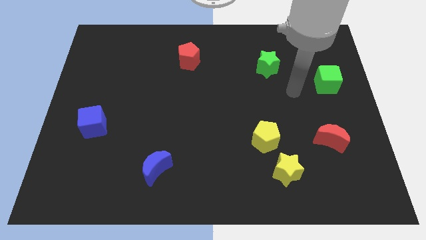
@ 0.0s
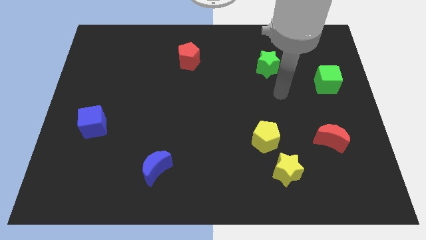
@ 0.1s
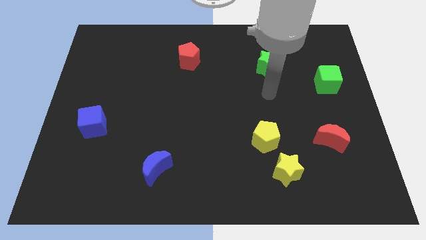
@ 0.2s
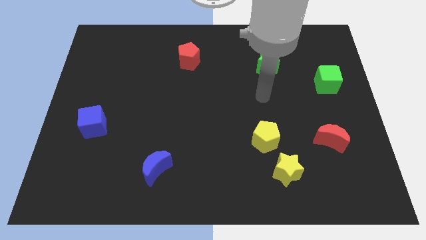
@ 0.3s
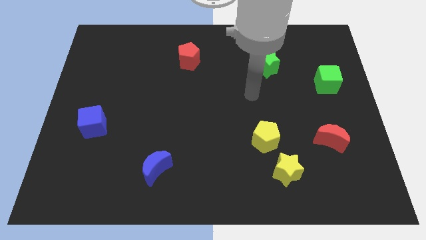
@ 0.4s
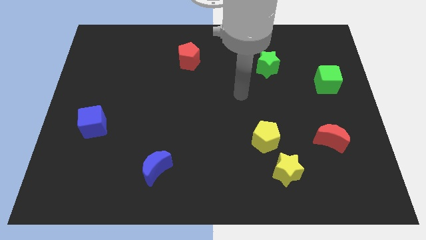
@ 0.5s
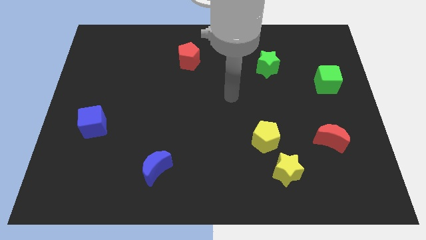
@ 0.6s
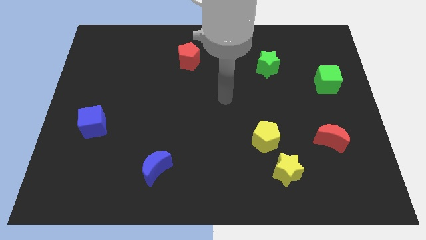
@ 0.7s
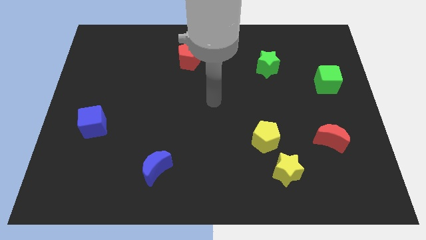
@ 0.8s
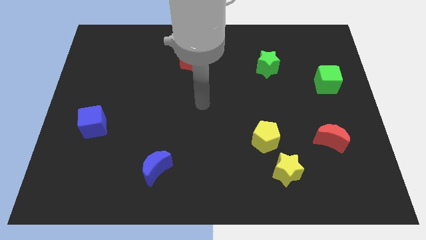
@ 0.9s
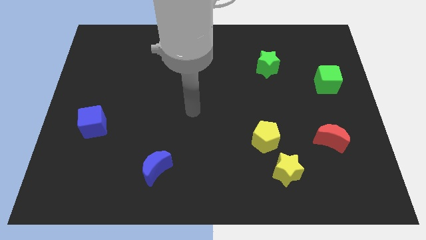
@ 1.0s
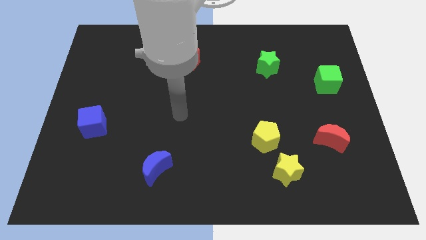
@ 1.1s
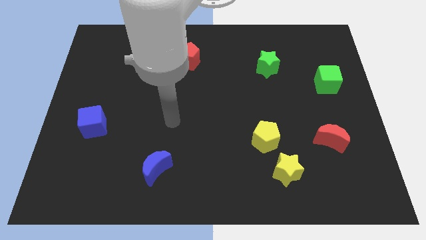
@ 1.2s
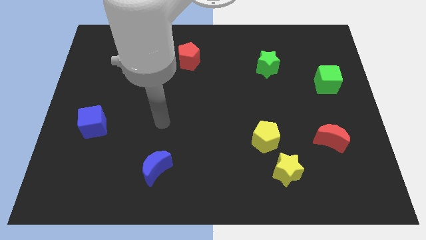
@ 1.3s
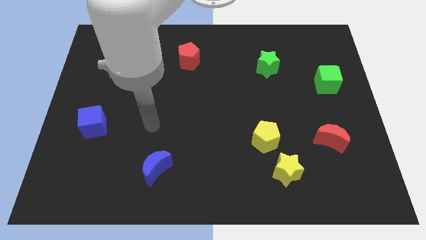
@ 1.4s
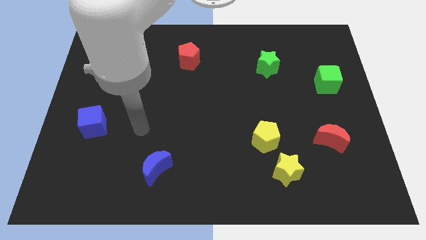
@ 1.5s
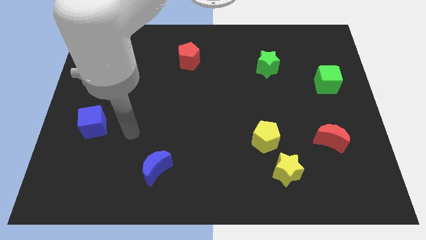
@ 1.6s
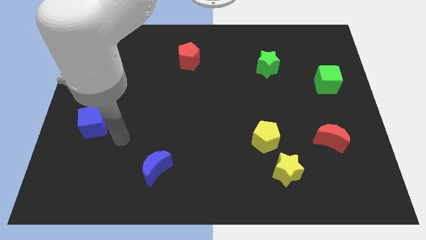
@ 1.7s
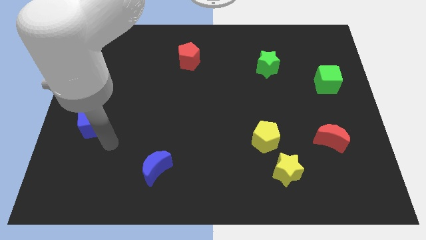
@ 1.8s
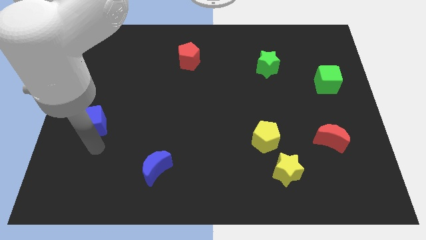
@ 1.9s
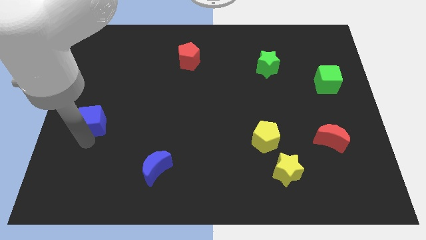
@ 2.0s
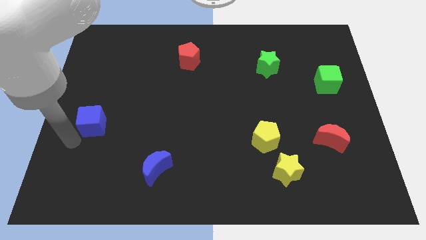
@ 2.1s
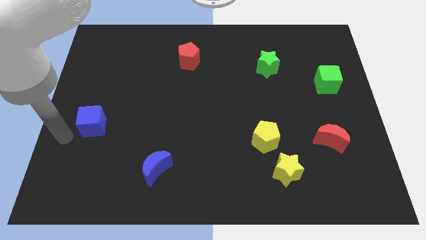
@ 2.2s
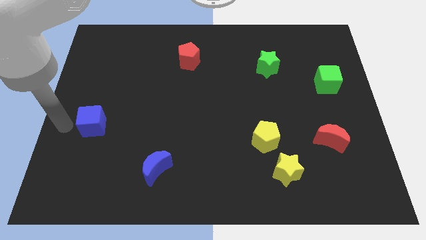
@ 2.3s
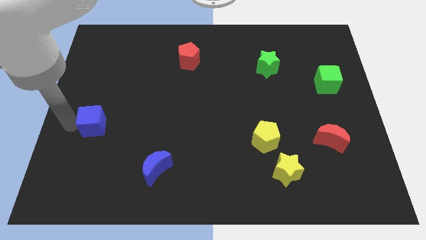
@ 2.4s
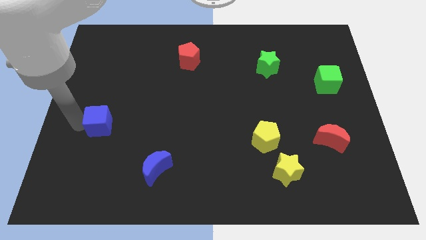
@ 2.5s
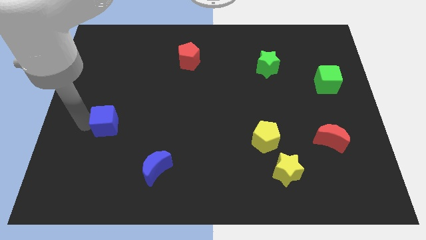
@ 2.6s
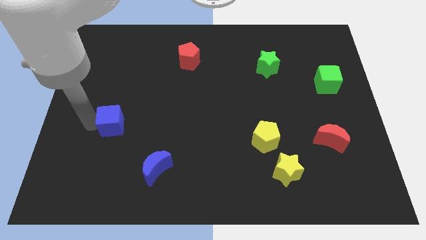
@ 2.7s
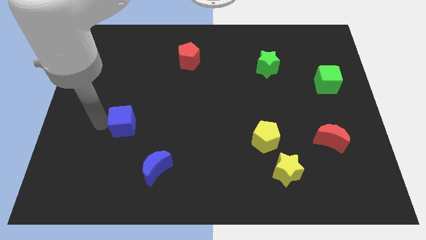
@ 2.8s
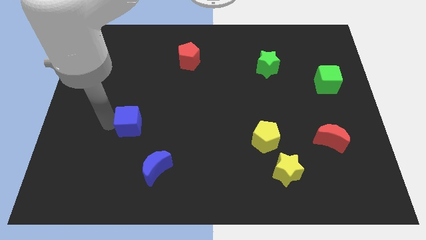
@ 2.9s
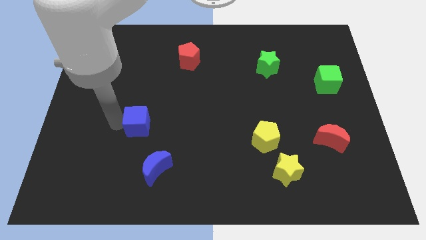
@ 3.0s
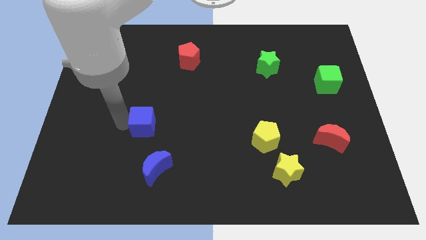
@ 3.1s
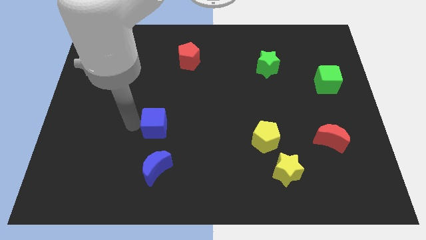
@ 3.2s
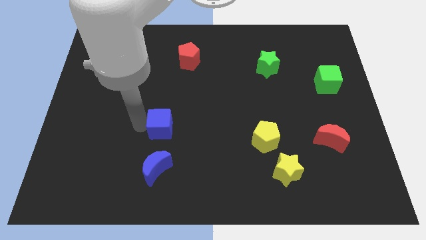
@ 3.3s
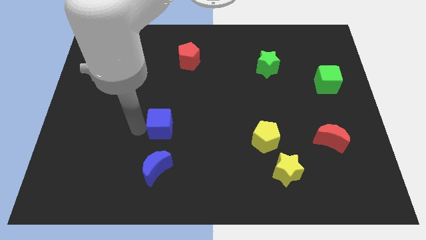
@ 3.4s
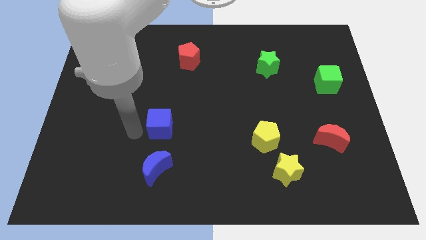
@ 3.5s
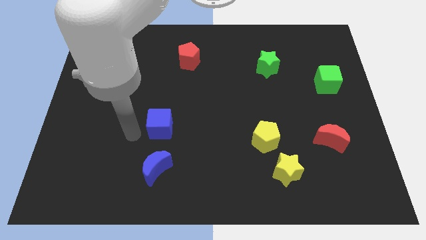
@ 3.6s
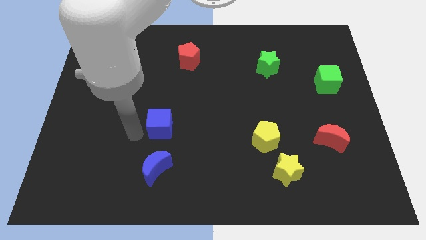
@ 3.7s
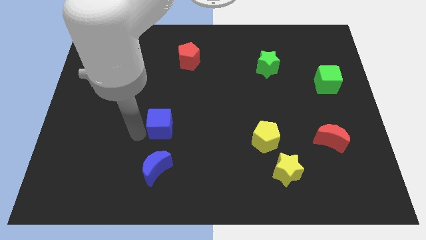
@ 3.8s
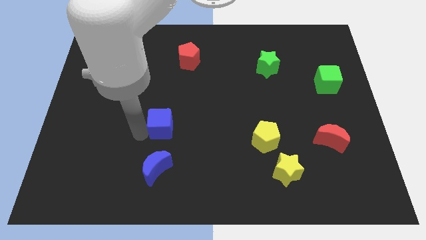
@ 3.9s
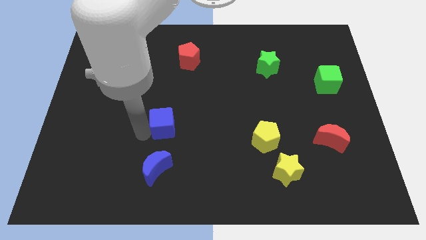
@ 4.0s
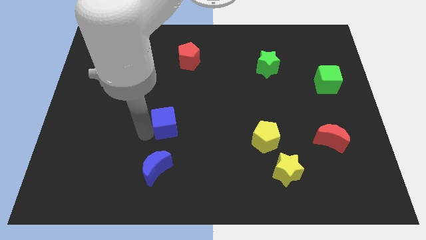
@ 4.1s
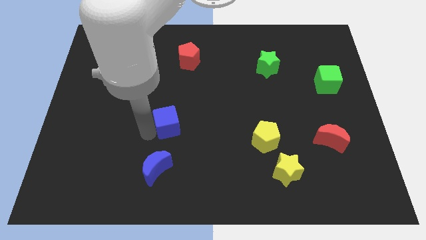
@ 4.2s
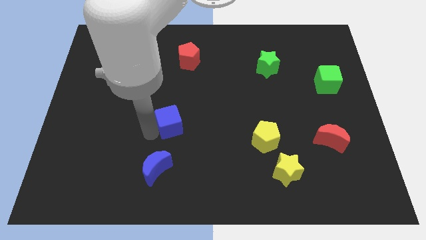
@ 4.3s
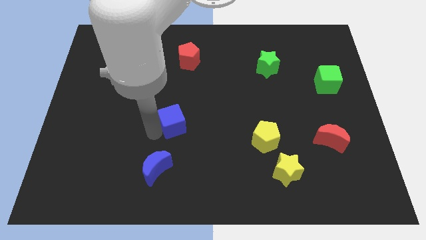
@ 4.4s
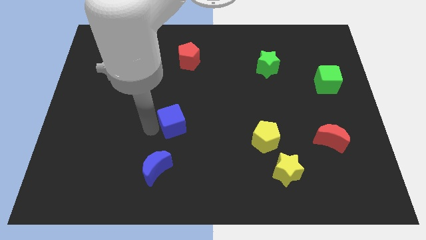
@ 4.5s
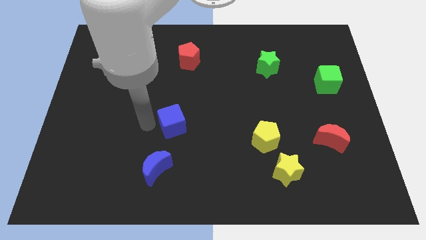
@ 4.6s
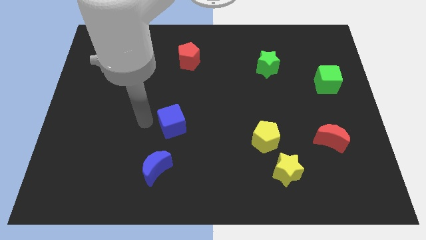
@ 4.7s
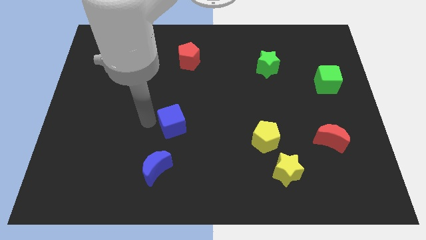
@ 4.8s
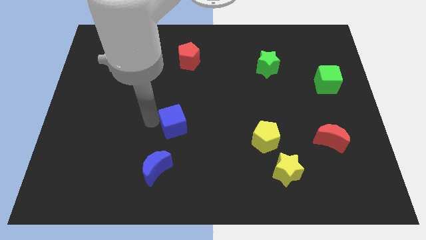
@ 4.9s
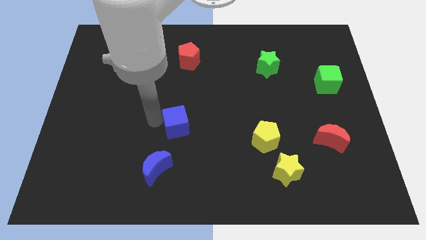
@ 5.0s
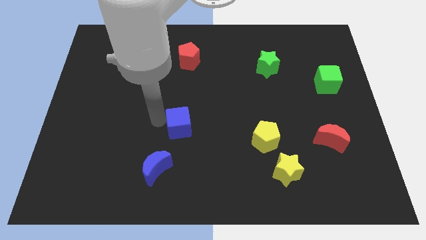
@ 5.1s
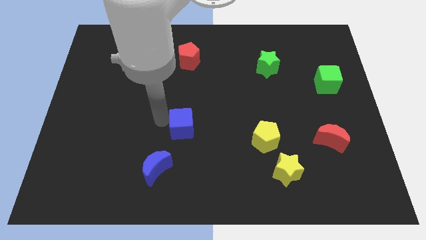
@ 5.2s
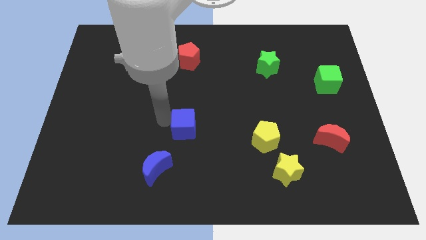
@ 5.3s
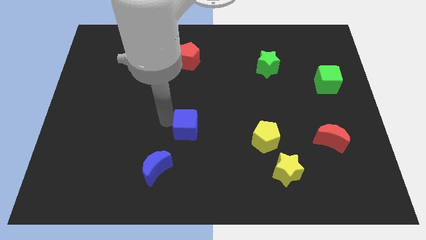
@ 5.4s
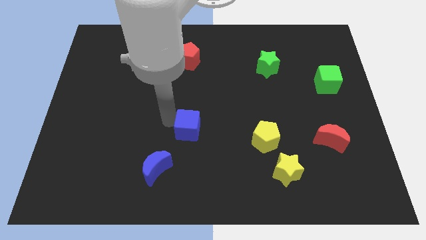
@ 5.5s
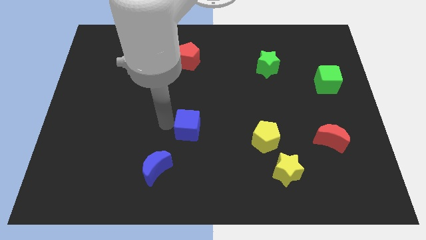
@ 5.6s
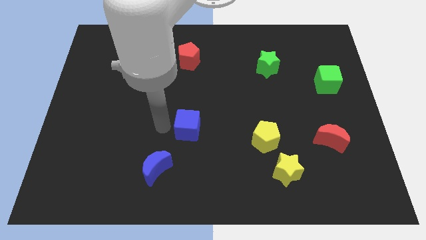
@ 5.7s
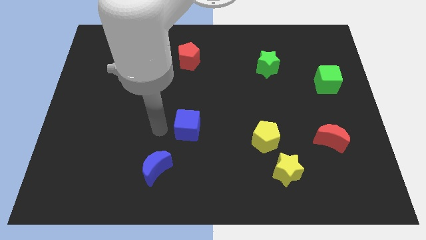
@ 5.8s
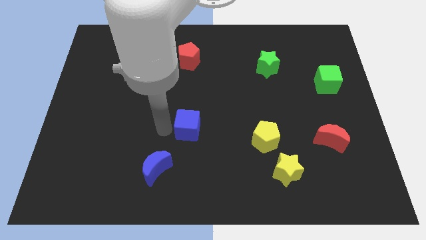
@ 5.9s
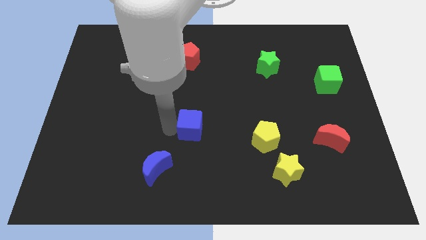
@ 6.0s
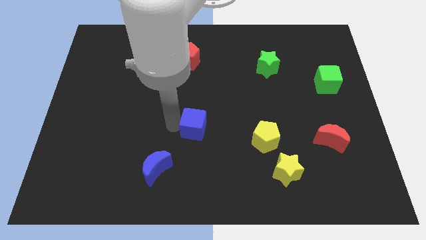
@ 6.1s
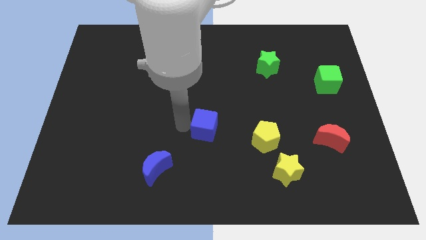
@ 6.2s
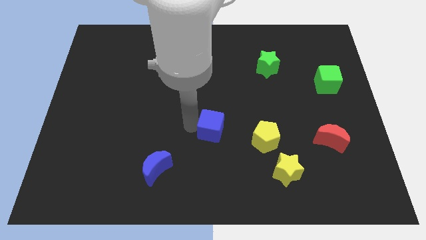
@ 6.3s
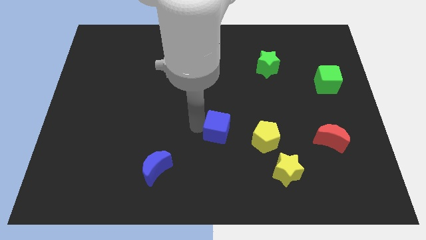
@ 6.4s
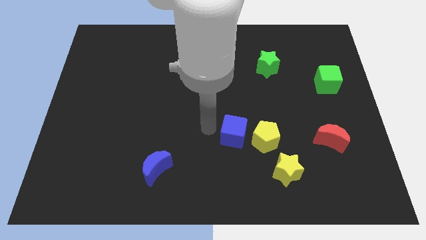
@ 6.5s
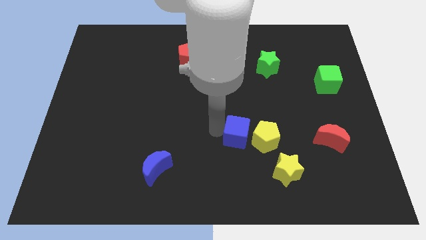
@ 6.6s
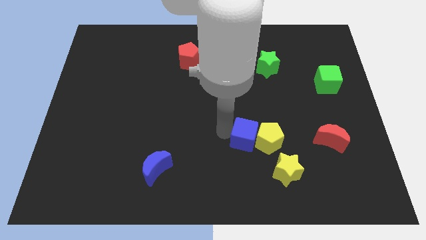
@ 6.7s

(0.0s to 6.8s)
push the blue cube towards the yellow pentagon

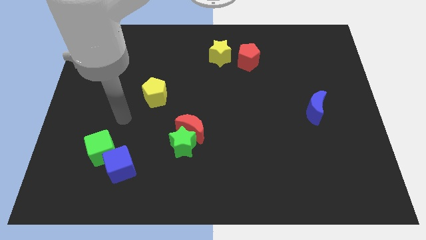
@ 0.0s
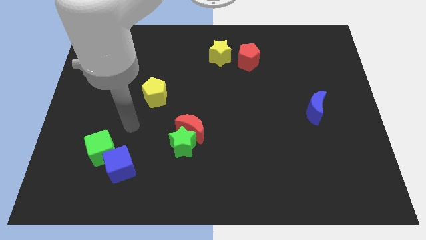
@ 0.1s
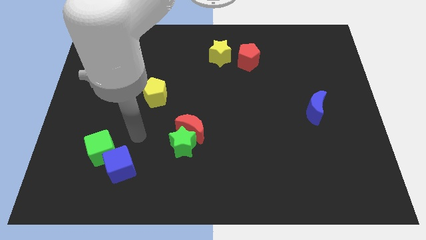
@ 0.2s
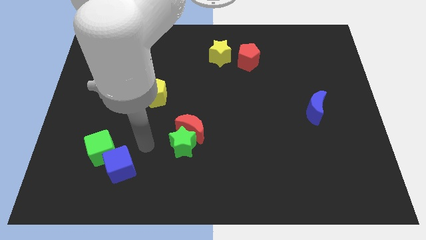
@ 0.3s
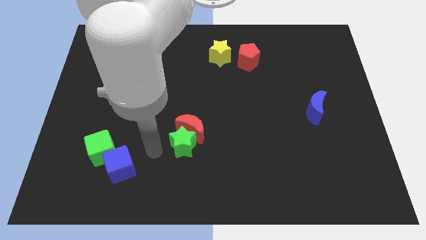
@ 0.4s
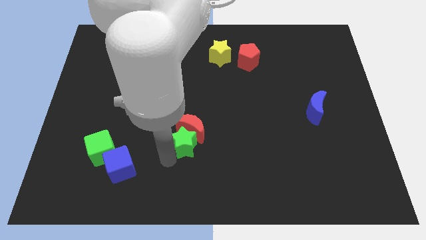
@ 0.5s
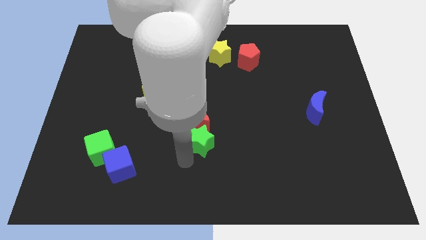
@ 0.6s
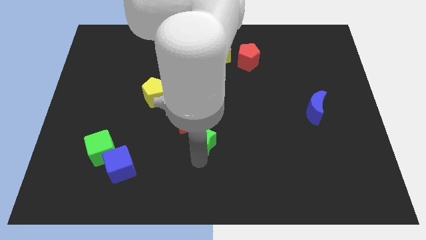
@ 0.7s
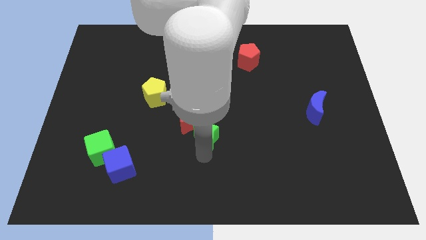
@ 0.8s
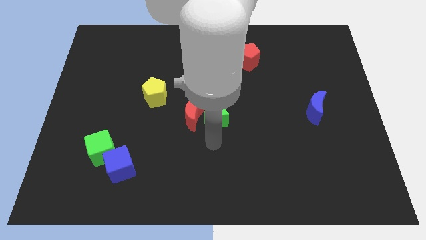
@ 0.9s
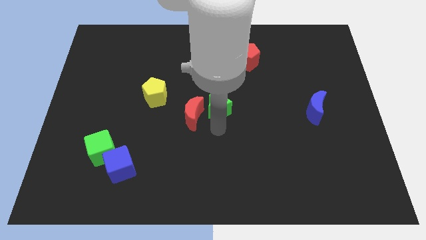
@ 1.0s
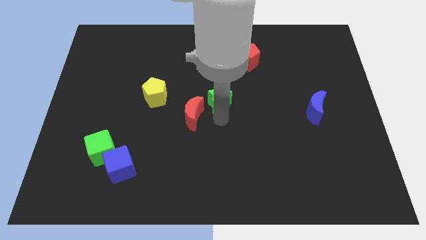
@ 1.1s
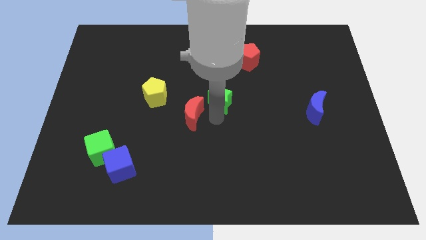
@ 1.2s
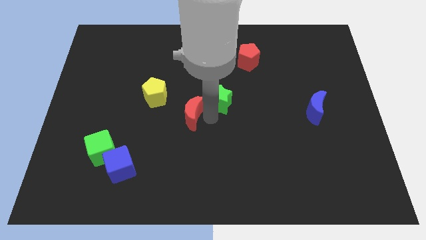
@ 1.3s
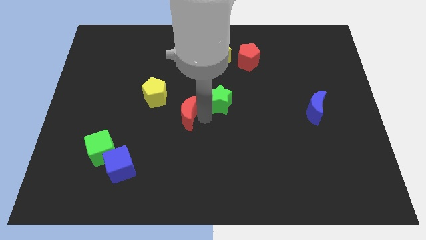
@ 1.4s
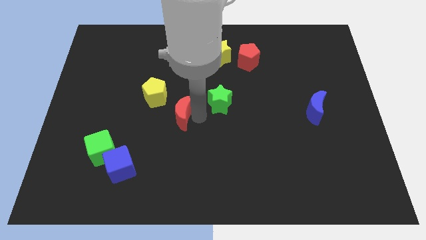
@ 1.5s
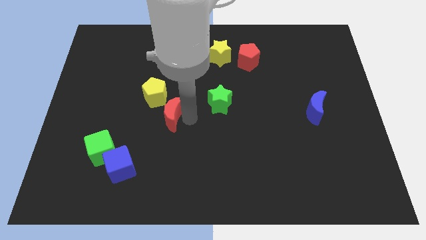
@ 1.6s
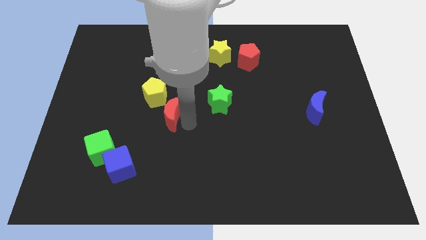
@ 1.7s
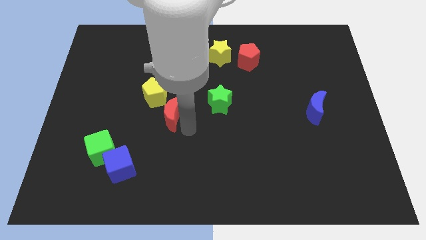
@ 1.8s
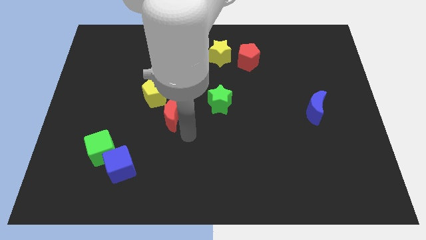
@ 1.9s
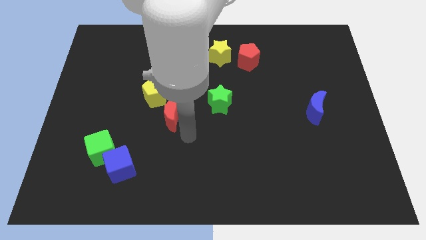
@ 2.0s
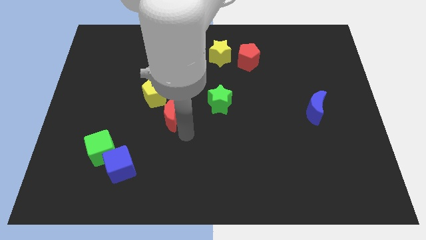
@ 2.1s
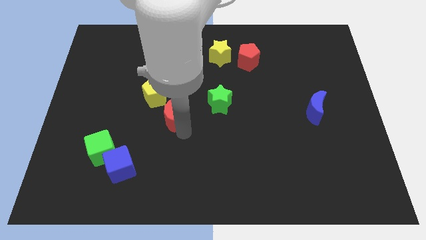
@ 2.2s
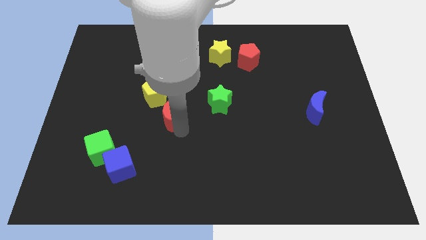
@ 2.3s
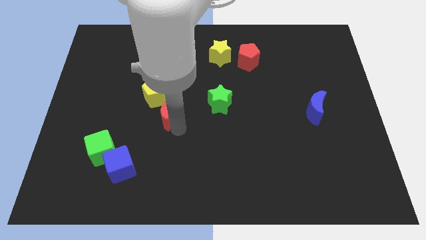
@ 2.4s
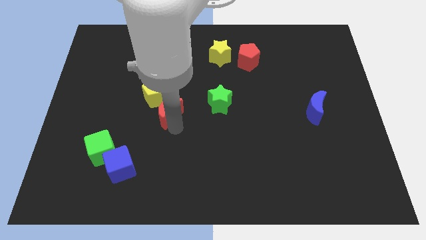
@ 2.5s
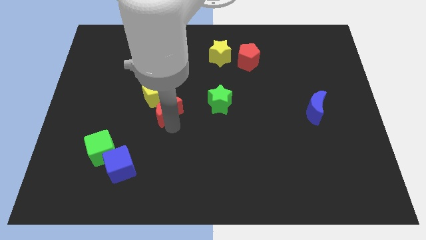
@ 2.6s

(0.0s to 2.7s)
slide the red moon towards the yellow pentagon
